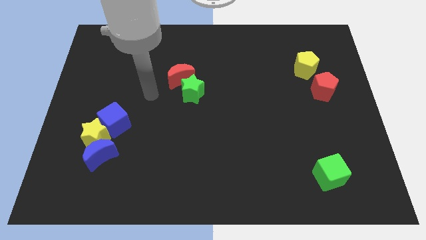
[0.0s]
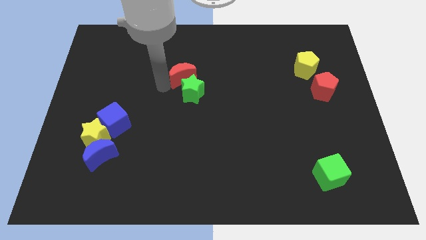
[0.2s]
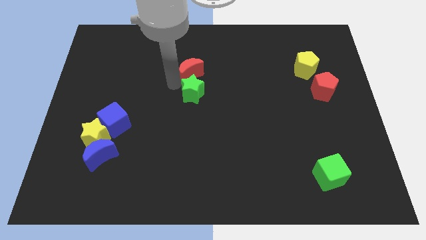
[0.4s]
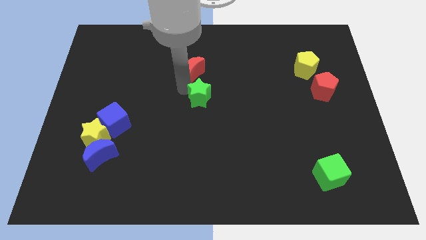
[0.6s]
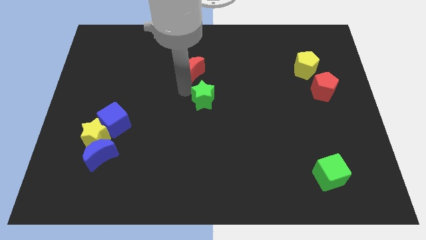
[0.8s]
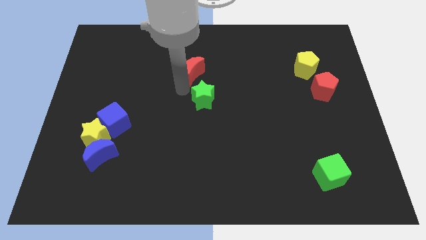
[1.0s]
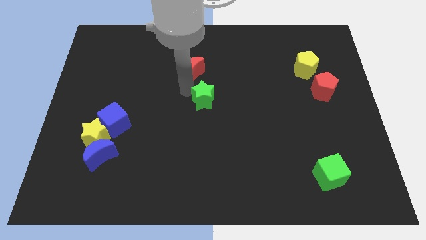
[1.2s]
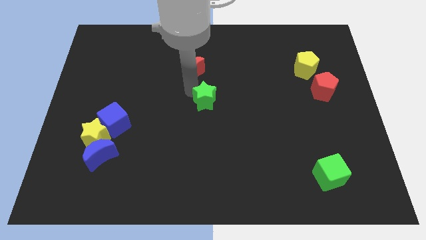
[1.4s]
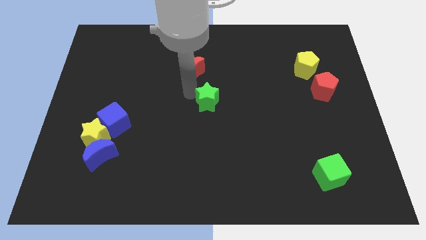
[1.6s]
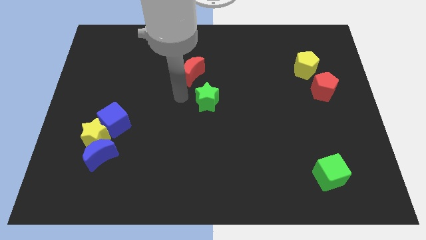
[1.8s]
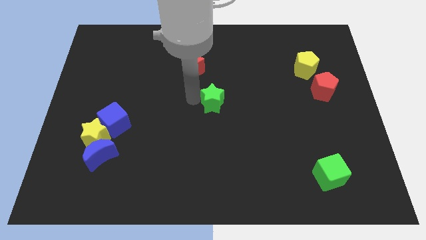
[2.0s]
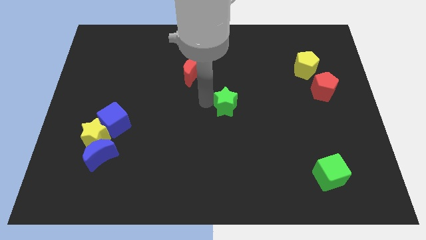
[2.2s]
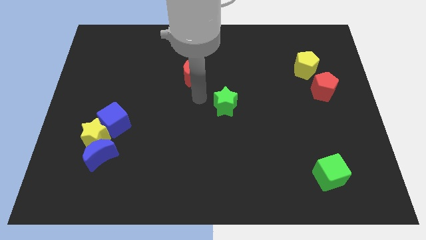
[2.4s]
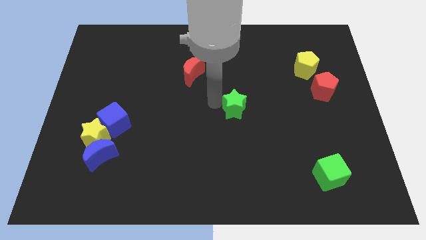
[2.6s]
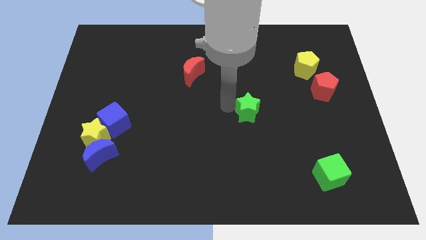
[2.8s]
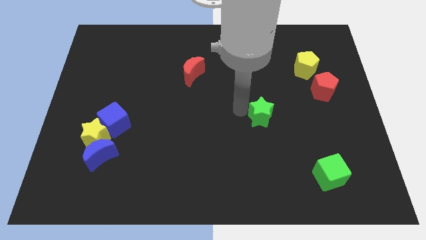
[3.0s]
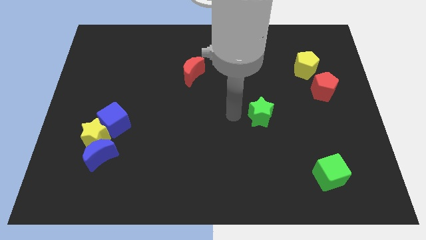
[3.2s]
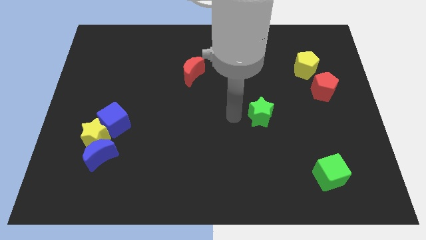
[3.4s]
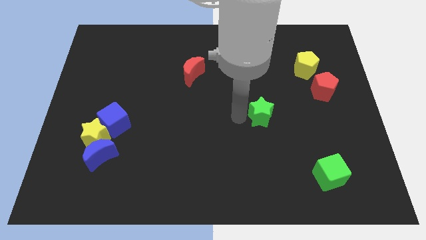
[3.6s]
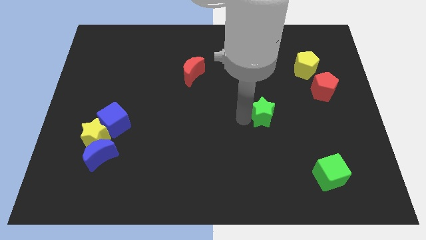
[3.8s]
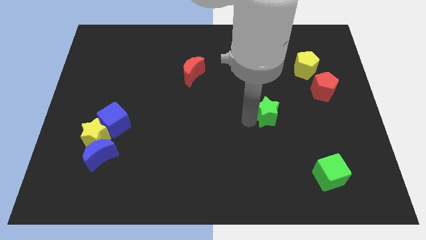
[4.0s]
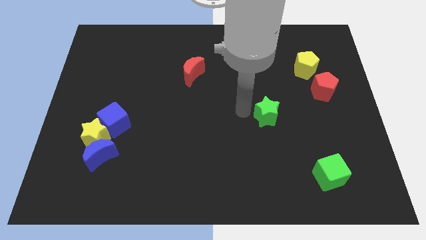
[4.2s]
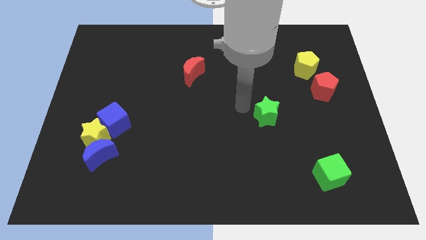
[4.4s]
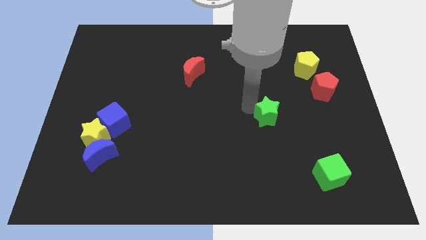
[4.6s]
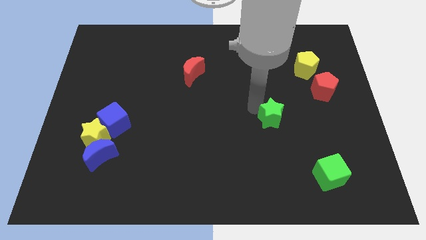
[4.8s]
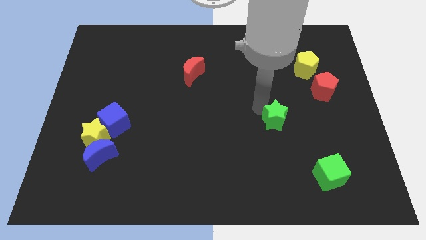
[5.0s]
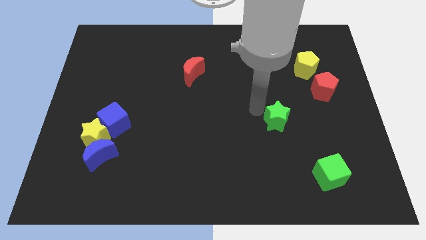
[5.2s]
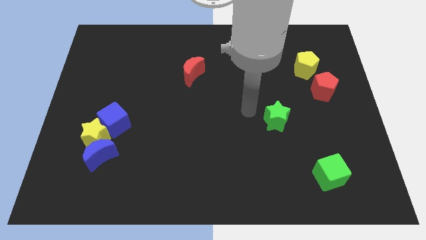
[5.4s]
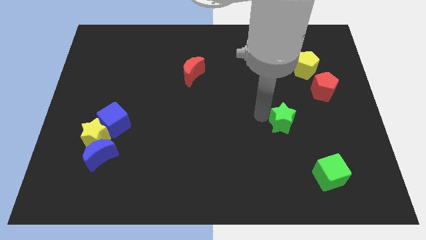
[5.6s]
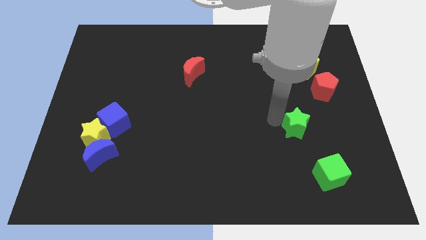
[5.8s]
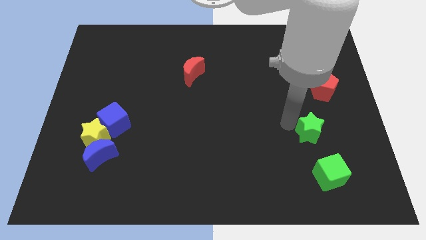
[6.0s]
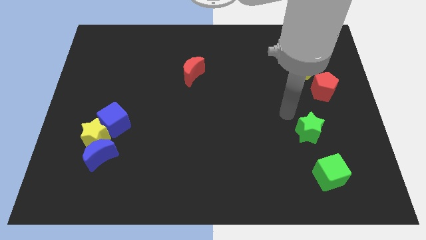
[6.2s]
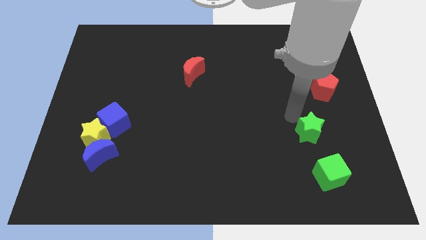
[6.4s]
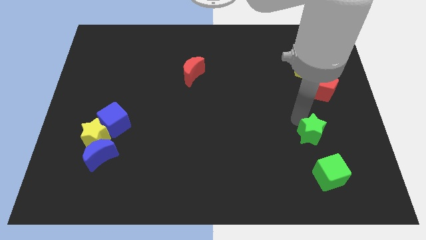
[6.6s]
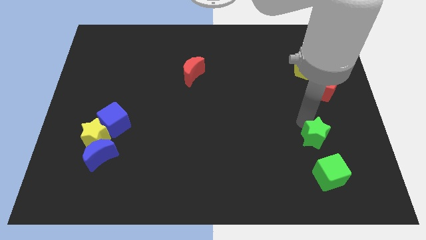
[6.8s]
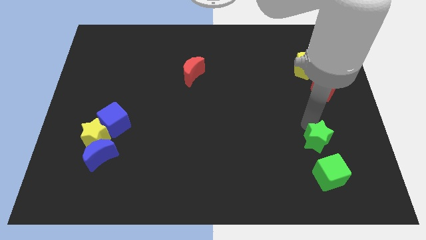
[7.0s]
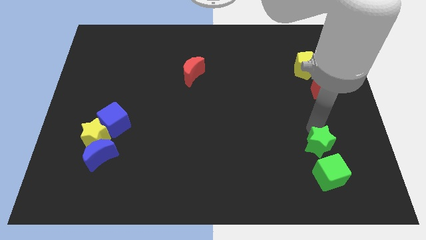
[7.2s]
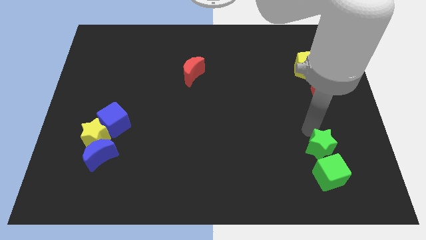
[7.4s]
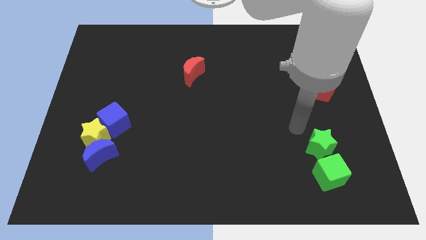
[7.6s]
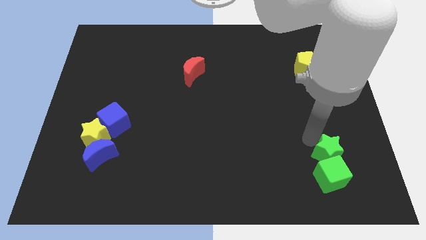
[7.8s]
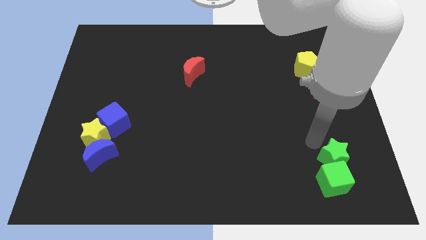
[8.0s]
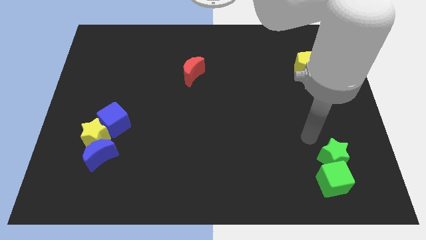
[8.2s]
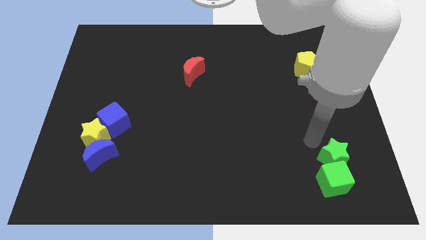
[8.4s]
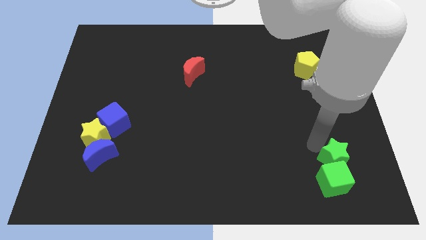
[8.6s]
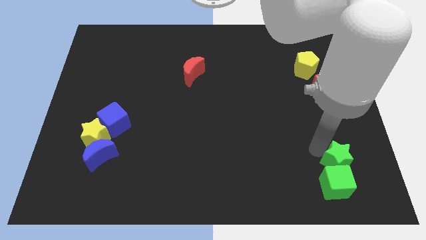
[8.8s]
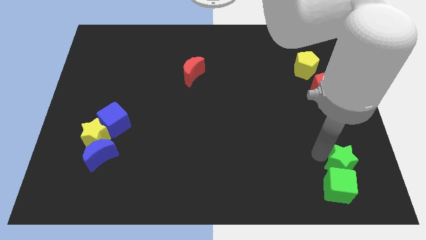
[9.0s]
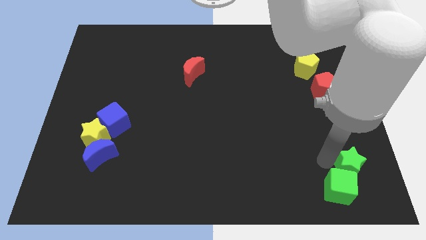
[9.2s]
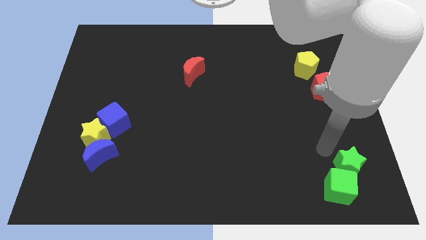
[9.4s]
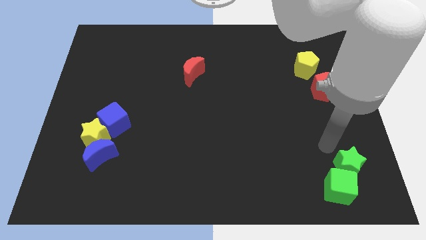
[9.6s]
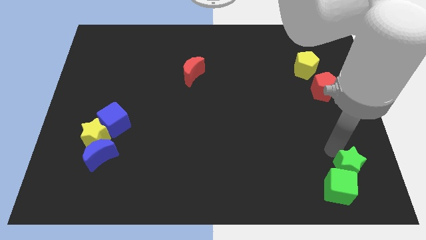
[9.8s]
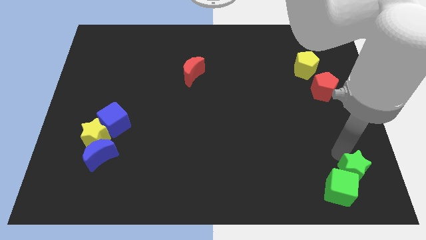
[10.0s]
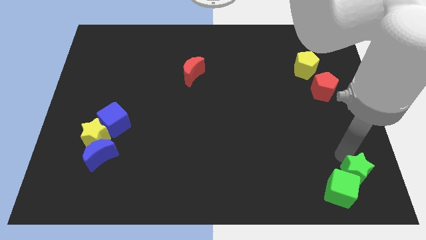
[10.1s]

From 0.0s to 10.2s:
slide the green star to the lower right corner

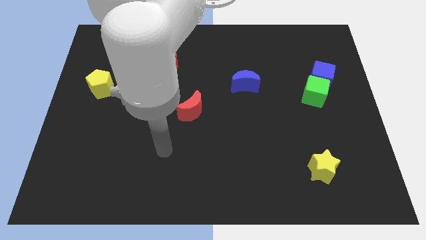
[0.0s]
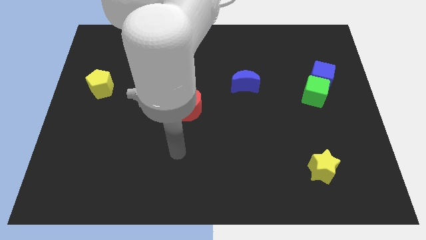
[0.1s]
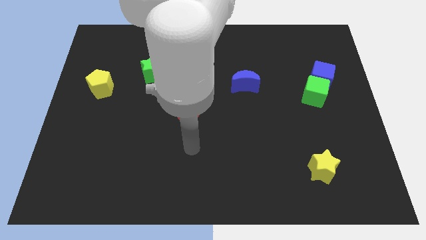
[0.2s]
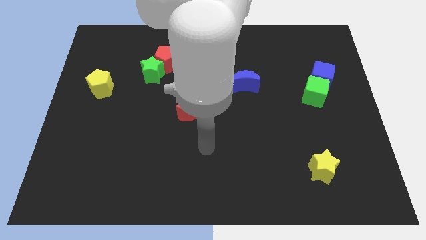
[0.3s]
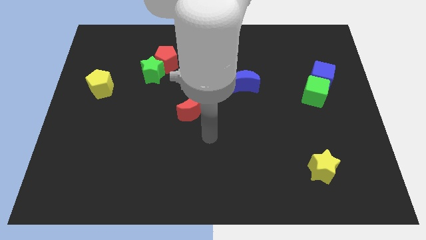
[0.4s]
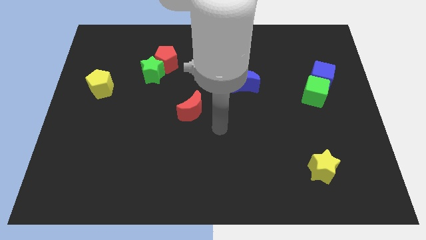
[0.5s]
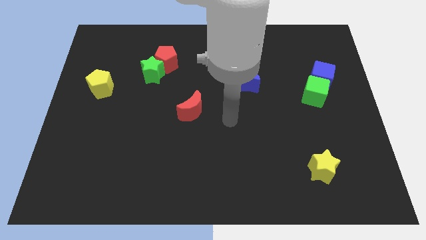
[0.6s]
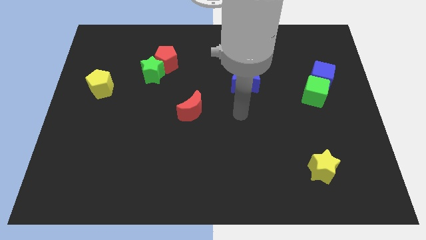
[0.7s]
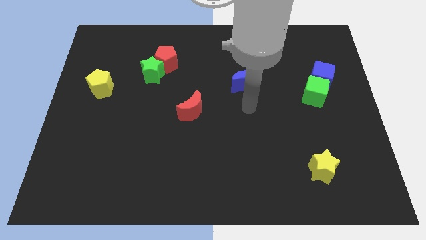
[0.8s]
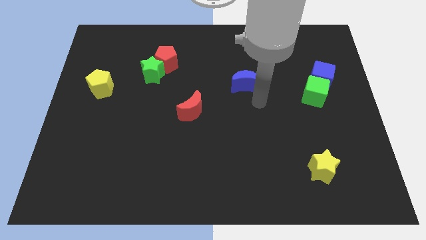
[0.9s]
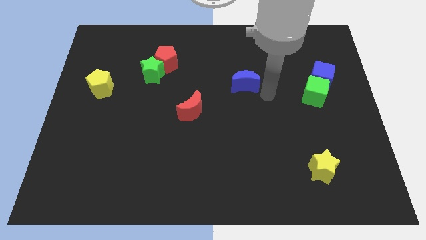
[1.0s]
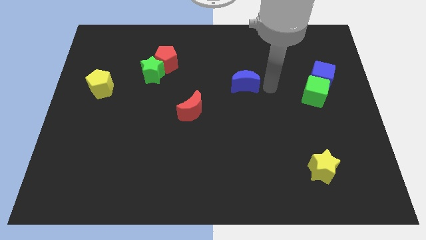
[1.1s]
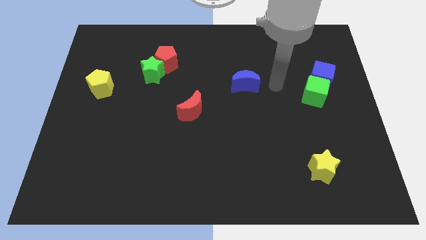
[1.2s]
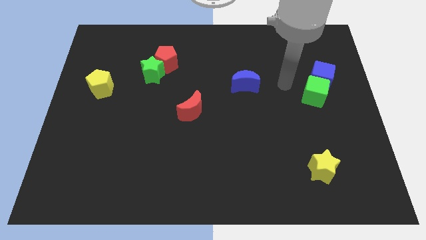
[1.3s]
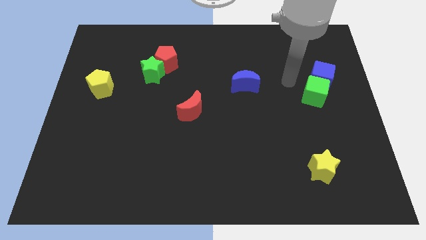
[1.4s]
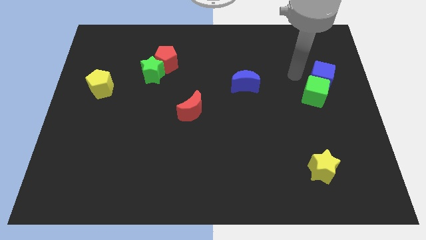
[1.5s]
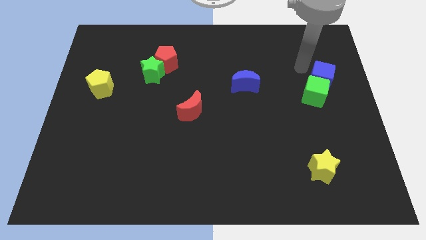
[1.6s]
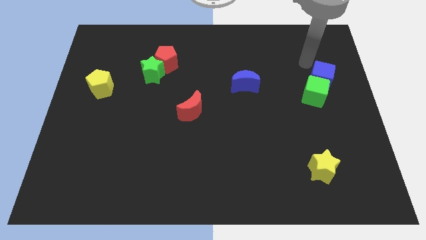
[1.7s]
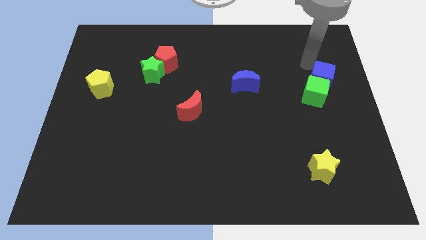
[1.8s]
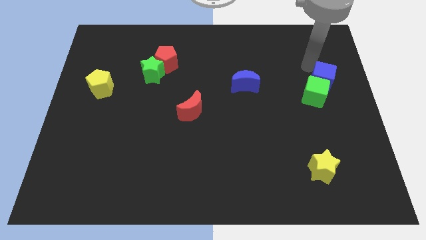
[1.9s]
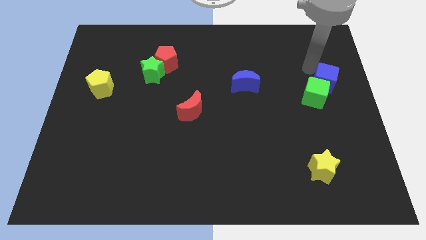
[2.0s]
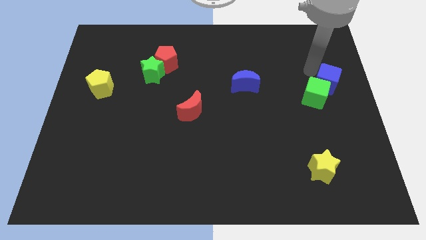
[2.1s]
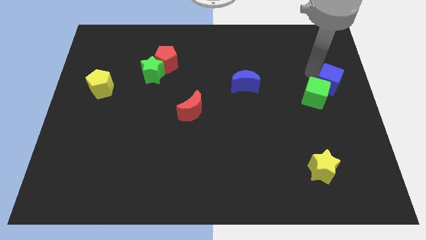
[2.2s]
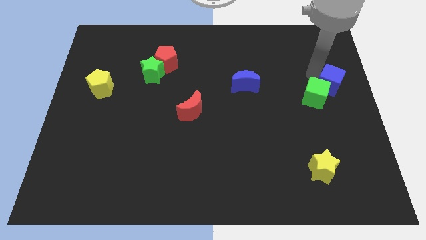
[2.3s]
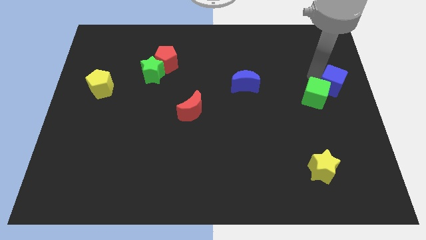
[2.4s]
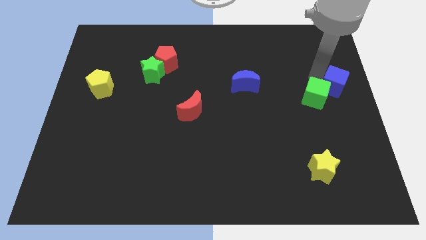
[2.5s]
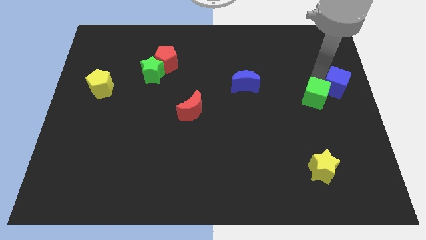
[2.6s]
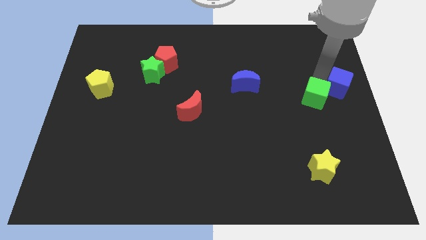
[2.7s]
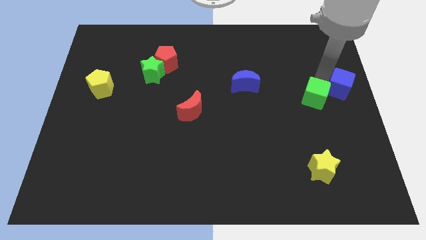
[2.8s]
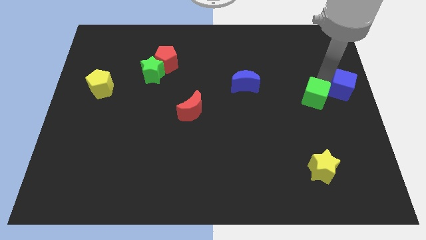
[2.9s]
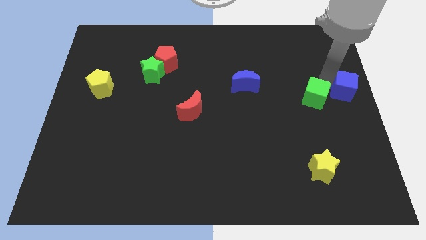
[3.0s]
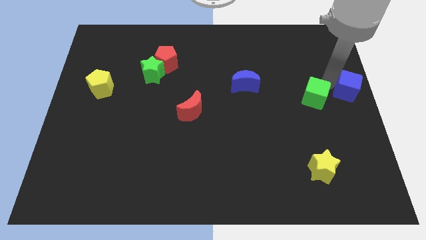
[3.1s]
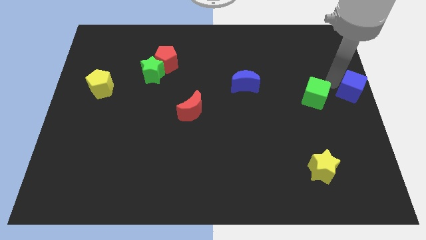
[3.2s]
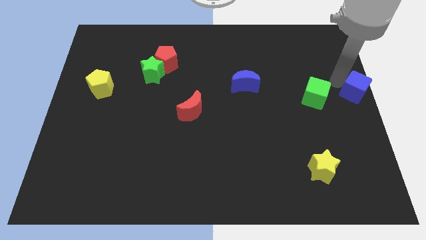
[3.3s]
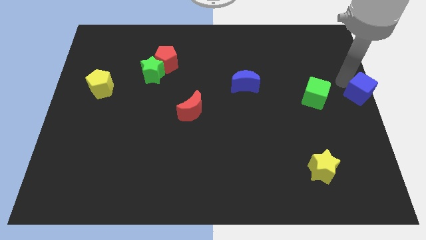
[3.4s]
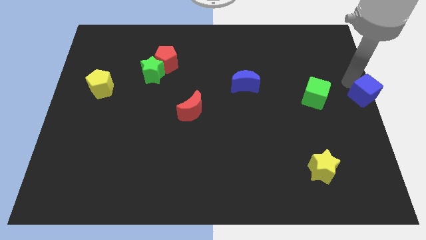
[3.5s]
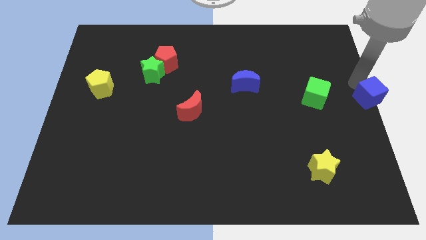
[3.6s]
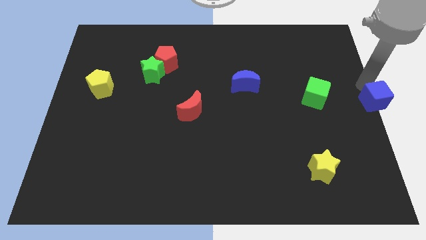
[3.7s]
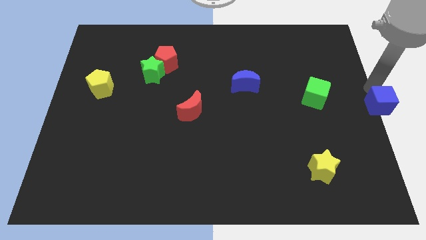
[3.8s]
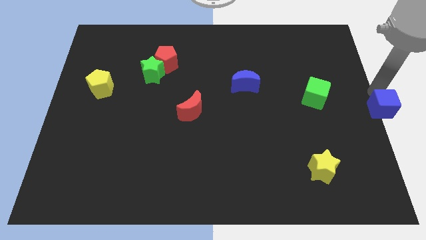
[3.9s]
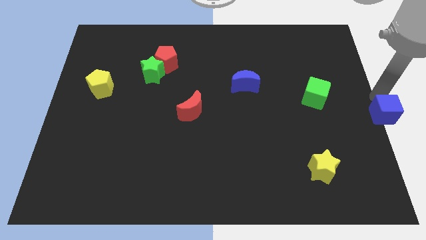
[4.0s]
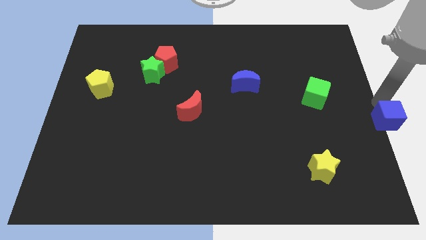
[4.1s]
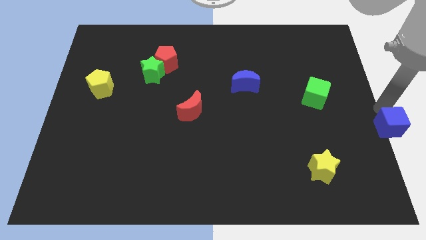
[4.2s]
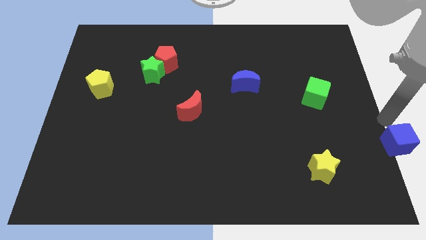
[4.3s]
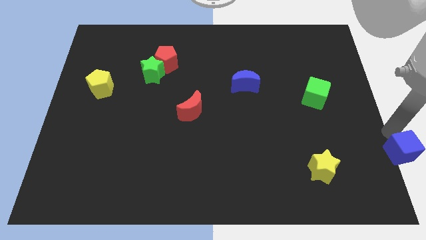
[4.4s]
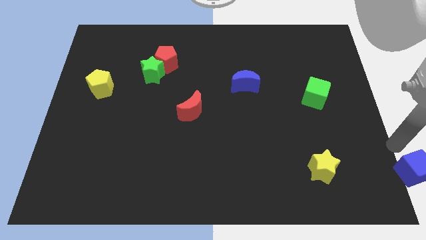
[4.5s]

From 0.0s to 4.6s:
put the blue cube to the bottom right of the board
